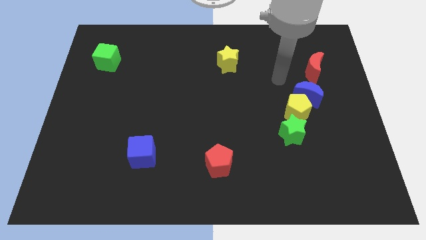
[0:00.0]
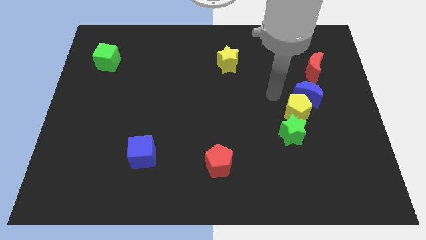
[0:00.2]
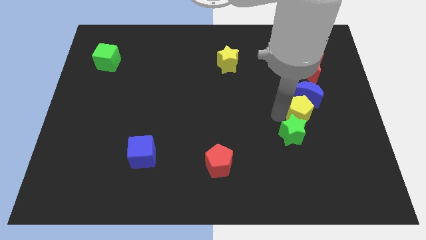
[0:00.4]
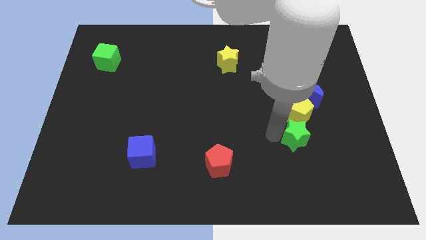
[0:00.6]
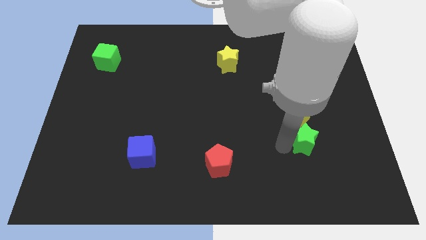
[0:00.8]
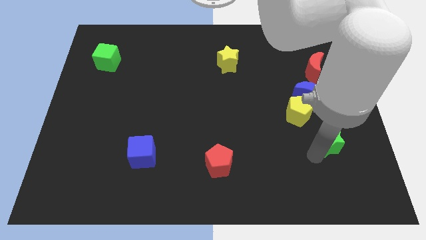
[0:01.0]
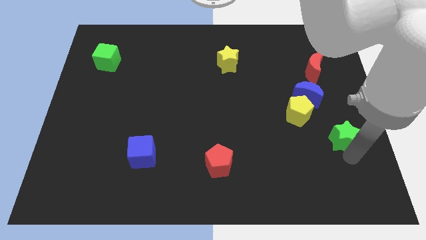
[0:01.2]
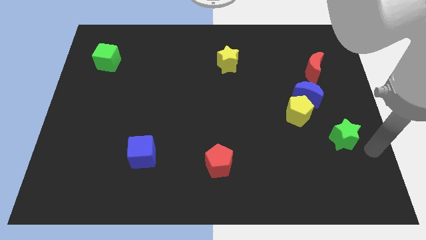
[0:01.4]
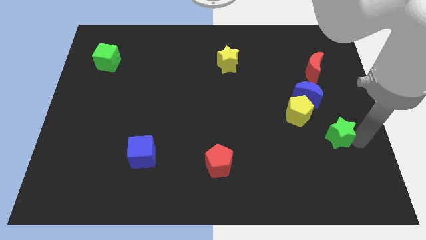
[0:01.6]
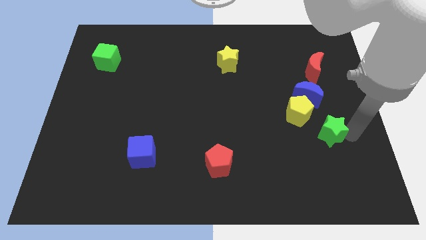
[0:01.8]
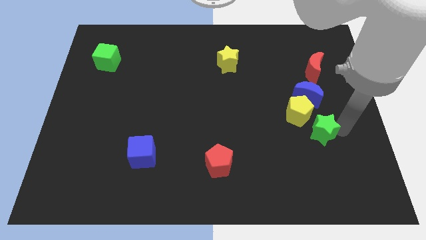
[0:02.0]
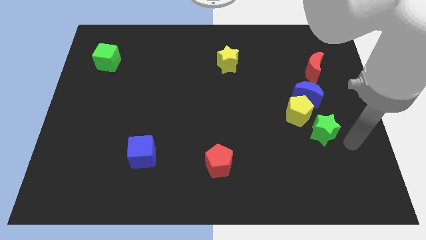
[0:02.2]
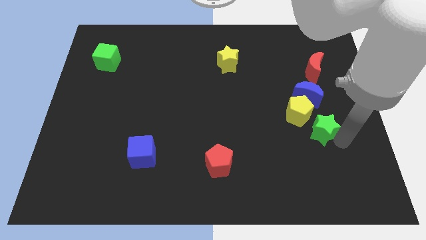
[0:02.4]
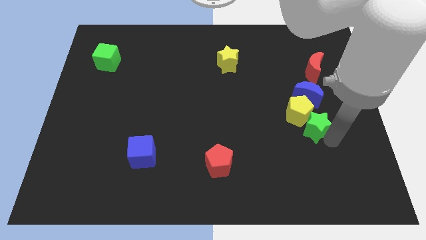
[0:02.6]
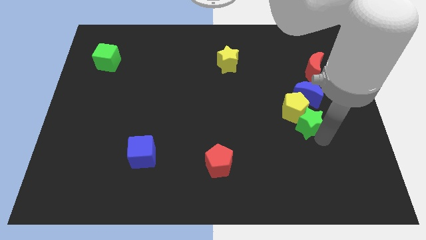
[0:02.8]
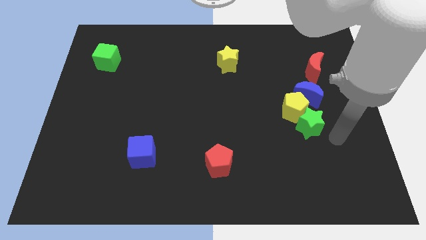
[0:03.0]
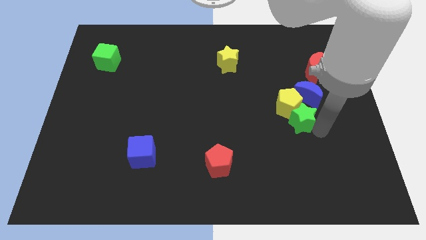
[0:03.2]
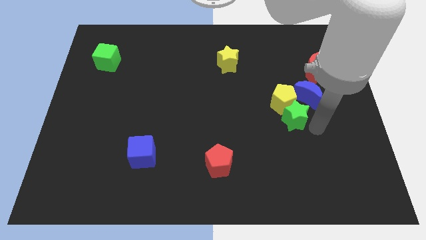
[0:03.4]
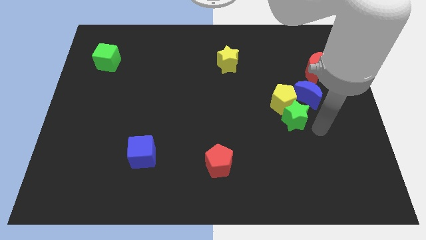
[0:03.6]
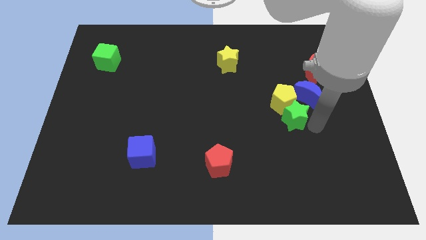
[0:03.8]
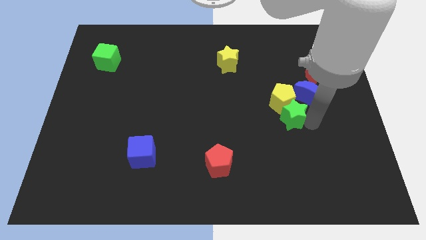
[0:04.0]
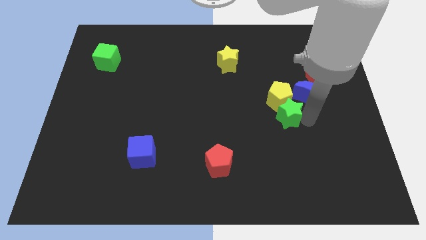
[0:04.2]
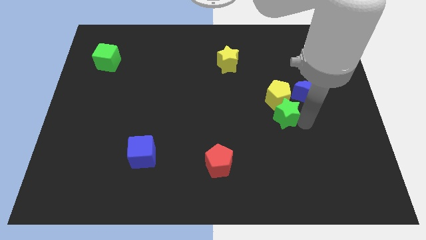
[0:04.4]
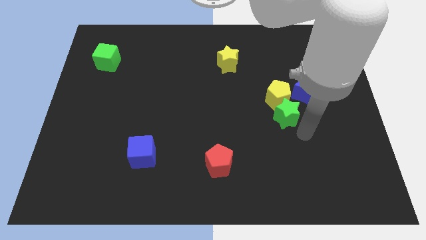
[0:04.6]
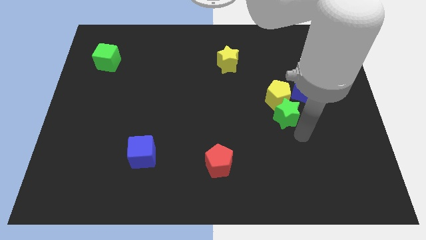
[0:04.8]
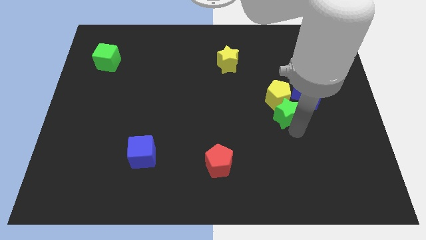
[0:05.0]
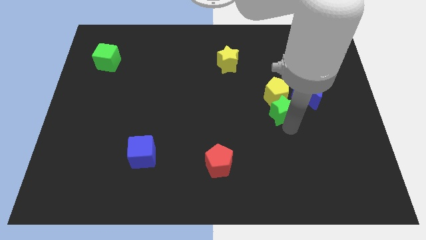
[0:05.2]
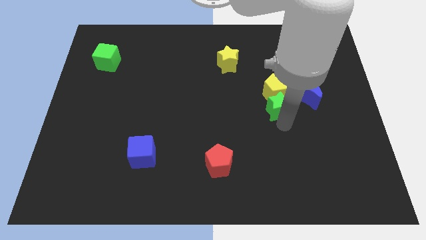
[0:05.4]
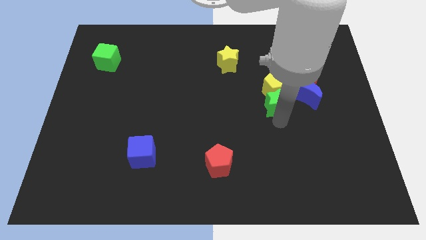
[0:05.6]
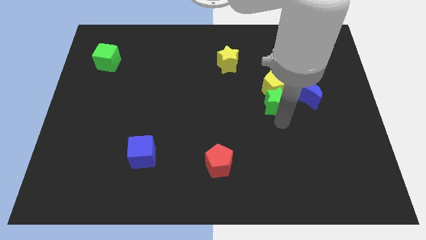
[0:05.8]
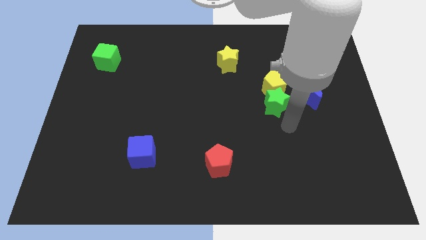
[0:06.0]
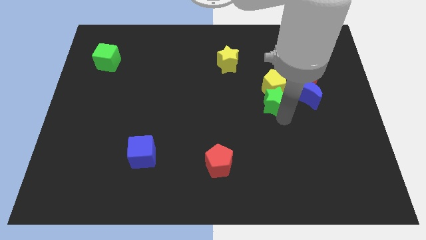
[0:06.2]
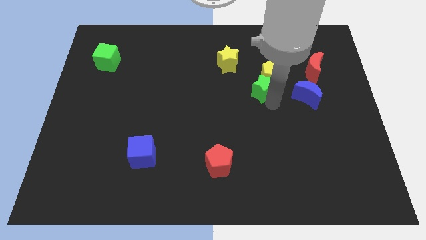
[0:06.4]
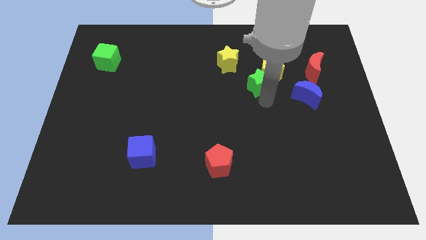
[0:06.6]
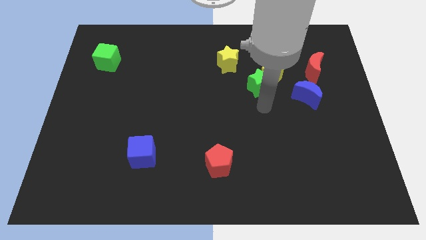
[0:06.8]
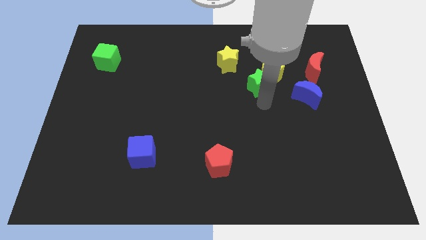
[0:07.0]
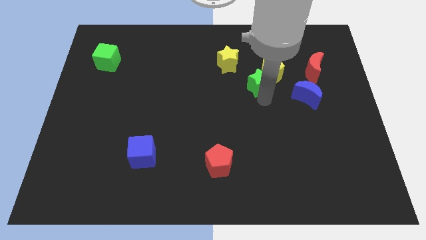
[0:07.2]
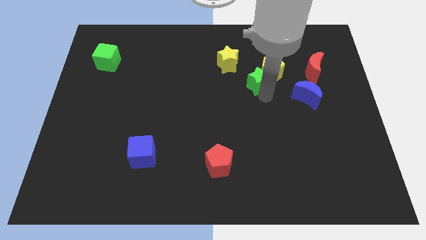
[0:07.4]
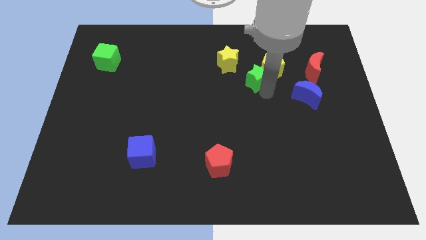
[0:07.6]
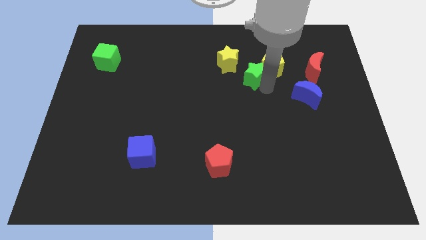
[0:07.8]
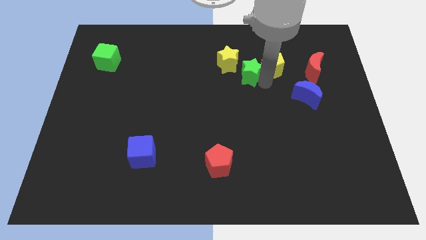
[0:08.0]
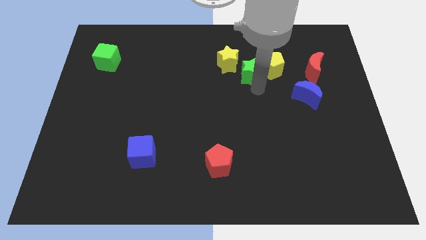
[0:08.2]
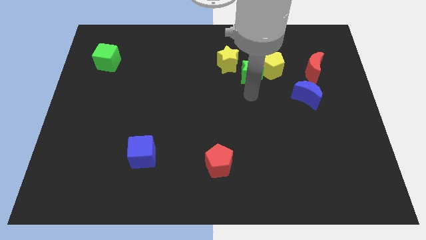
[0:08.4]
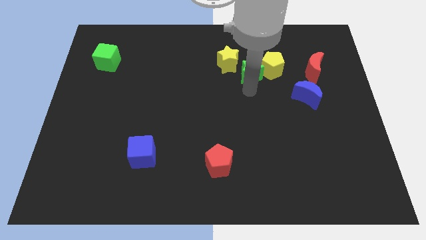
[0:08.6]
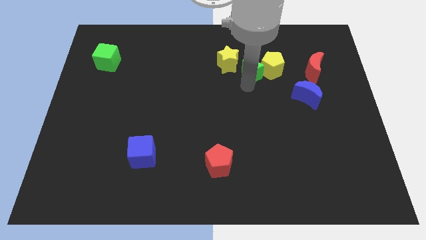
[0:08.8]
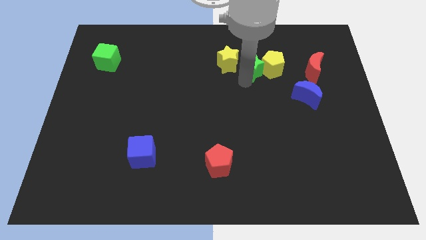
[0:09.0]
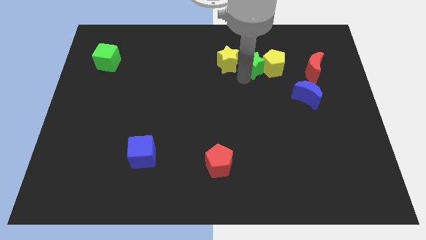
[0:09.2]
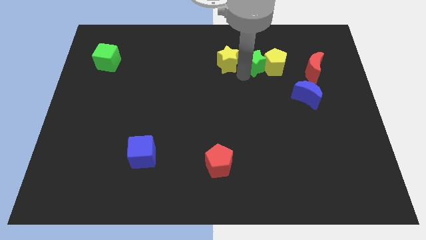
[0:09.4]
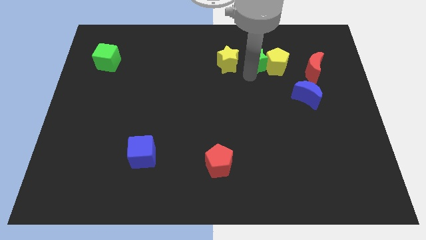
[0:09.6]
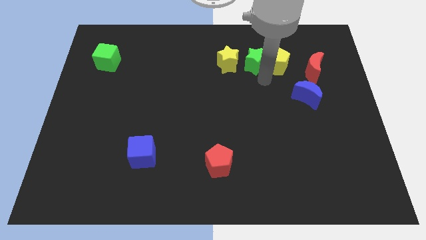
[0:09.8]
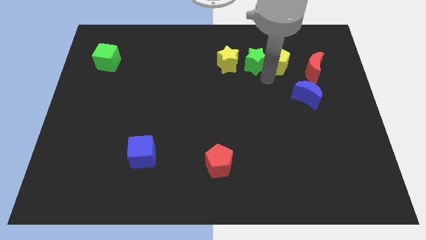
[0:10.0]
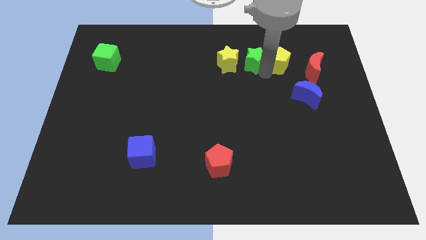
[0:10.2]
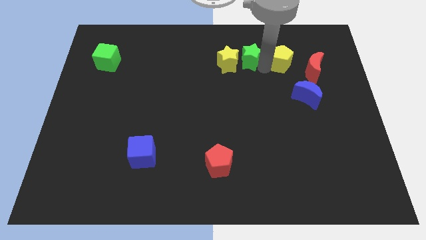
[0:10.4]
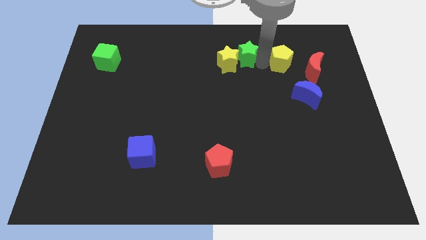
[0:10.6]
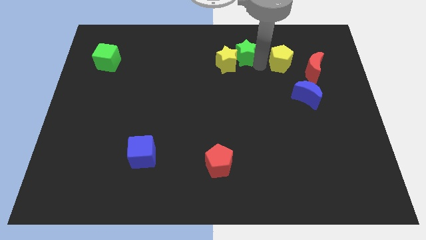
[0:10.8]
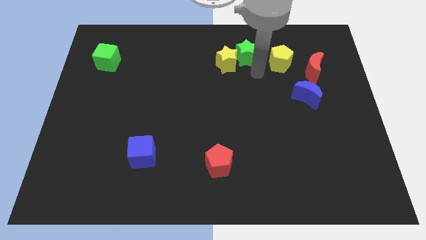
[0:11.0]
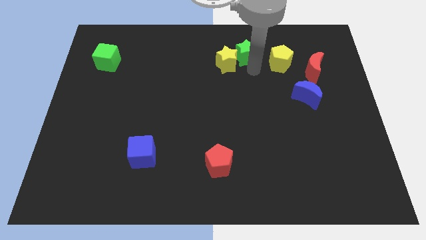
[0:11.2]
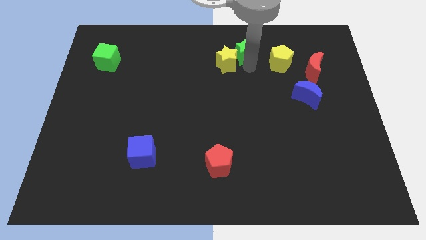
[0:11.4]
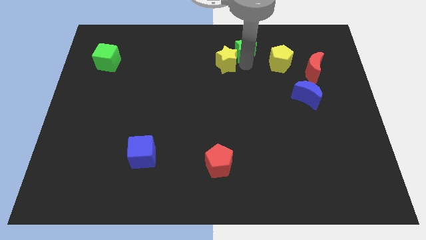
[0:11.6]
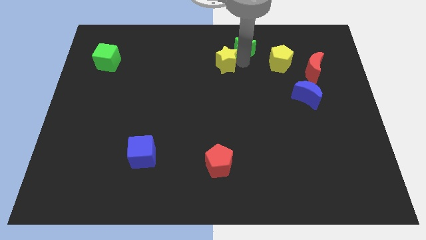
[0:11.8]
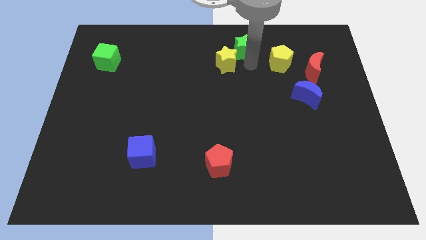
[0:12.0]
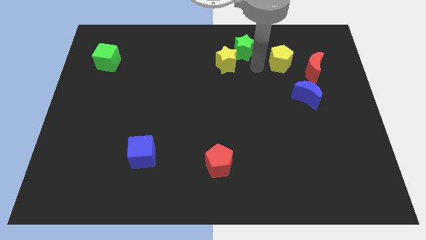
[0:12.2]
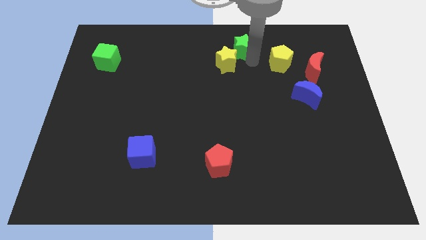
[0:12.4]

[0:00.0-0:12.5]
push the green star to the top

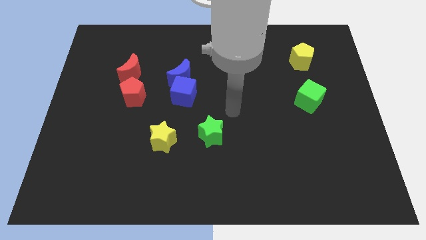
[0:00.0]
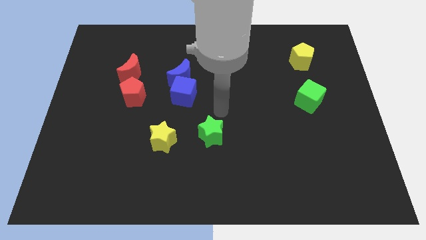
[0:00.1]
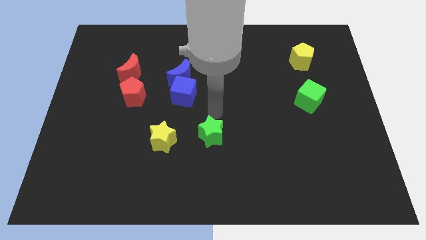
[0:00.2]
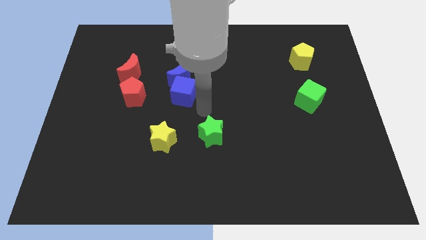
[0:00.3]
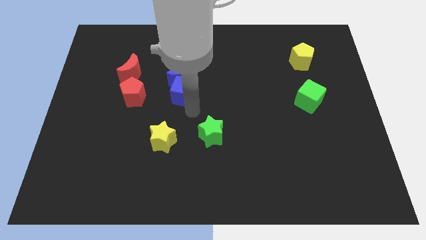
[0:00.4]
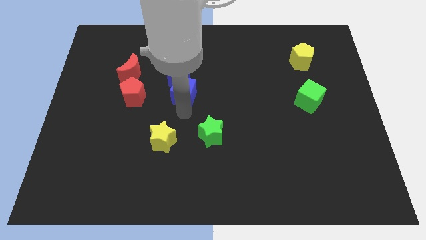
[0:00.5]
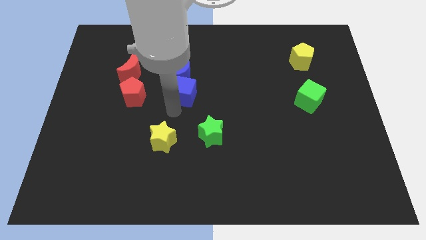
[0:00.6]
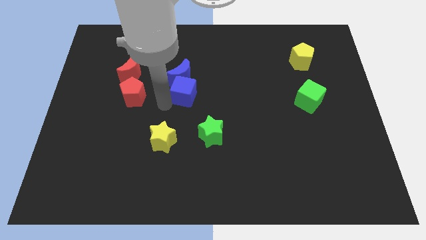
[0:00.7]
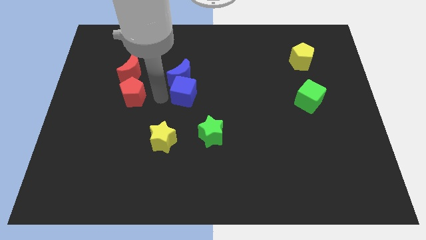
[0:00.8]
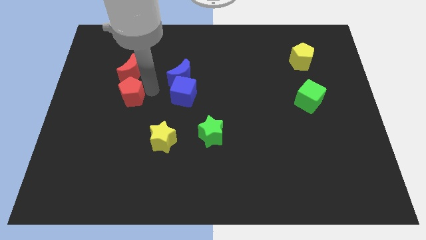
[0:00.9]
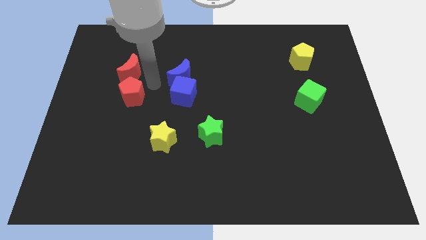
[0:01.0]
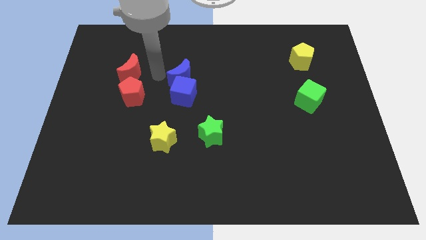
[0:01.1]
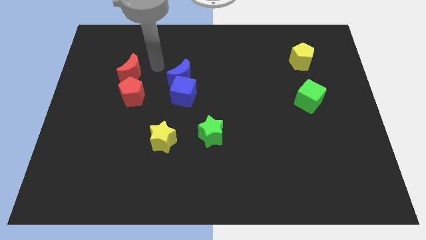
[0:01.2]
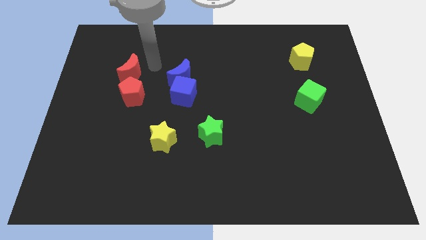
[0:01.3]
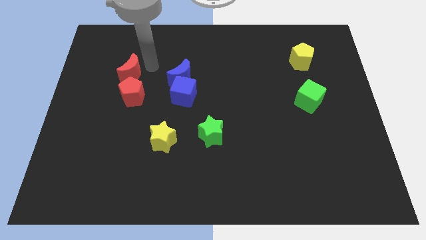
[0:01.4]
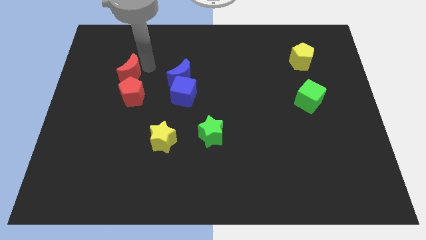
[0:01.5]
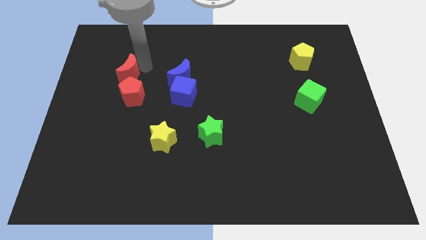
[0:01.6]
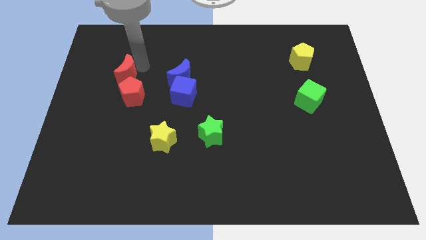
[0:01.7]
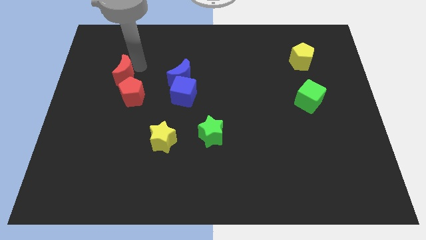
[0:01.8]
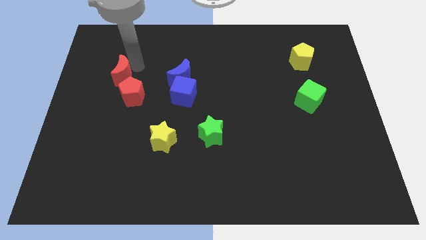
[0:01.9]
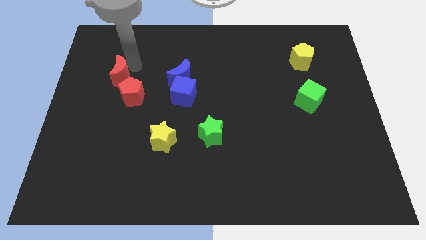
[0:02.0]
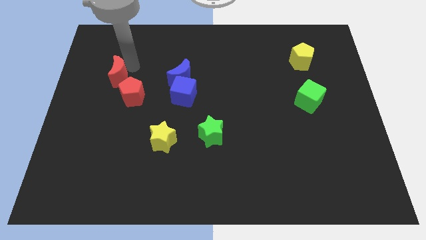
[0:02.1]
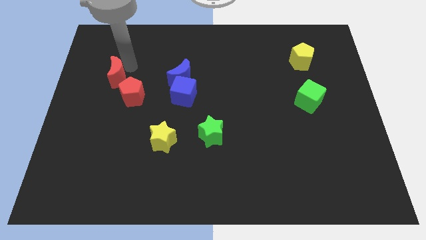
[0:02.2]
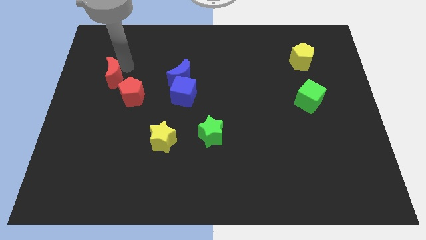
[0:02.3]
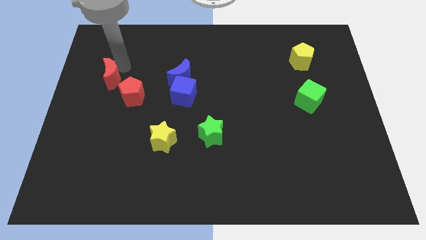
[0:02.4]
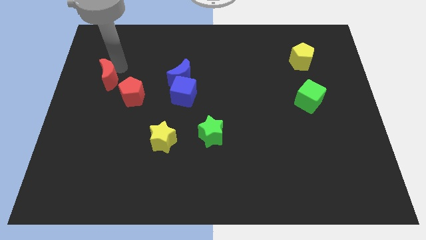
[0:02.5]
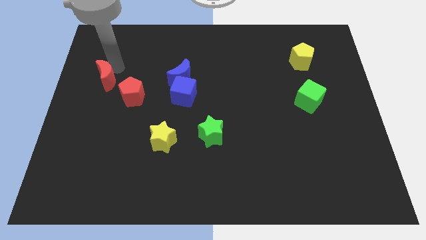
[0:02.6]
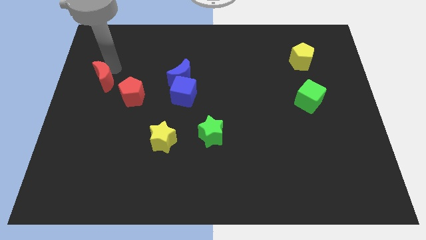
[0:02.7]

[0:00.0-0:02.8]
push the red moon to the left side
